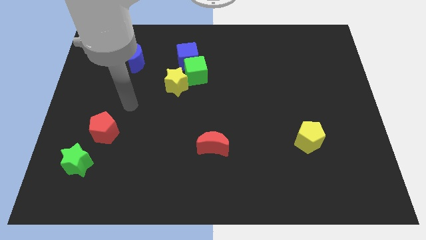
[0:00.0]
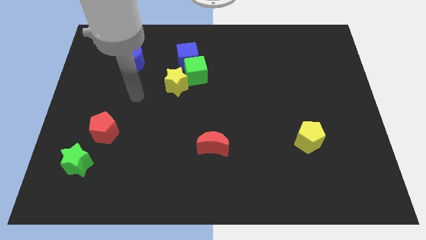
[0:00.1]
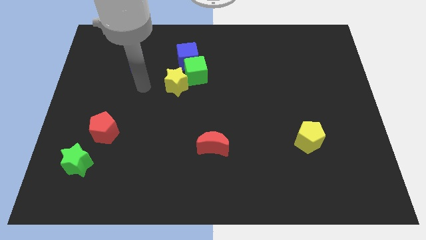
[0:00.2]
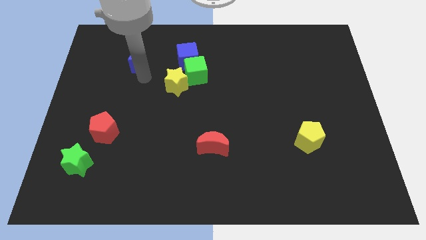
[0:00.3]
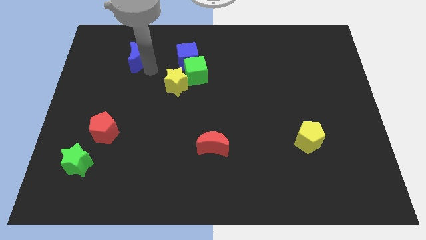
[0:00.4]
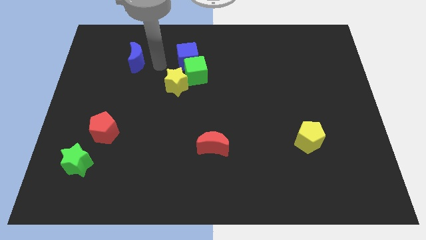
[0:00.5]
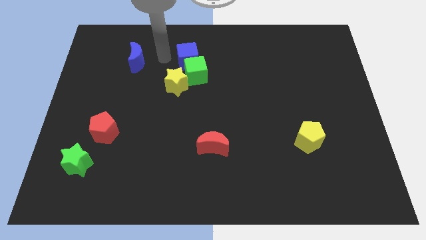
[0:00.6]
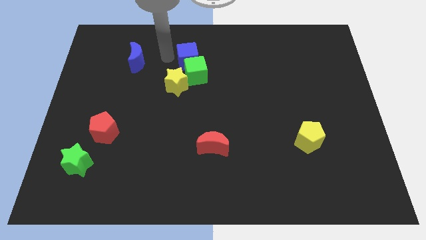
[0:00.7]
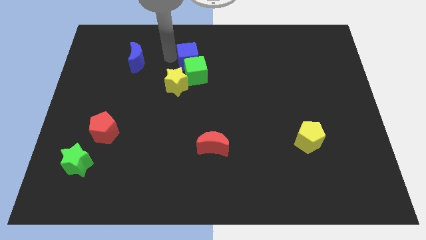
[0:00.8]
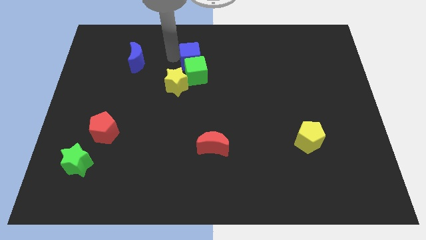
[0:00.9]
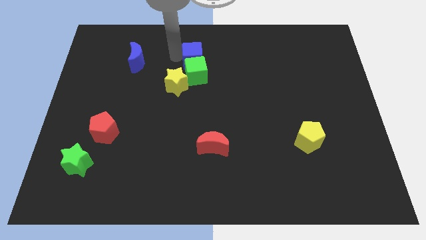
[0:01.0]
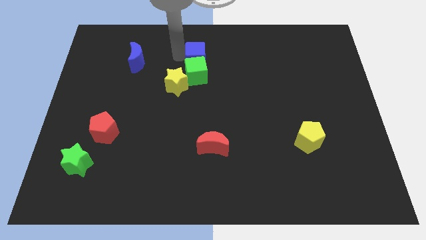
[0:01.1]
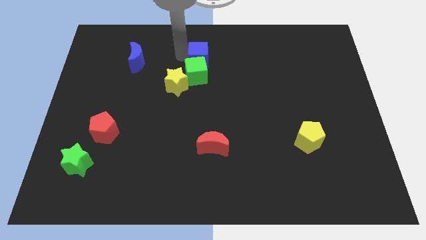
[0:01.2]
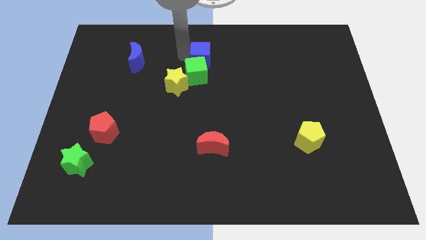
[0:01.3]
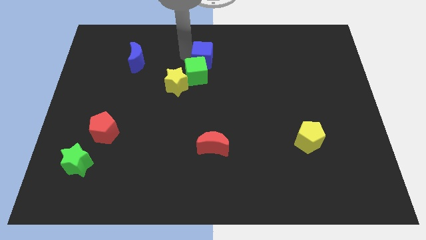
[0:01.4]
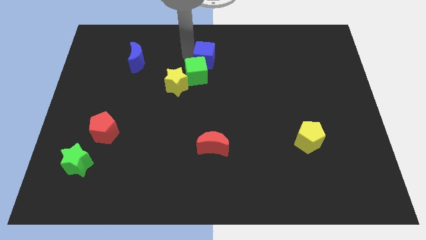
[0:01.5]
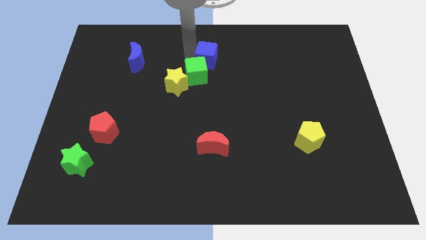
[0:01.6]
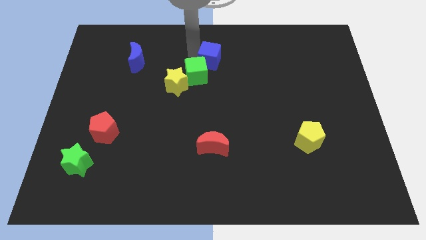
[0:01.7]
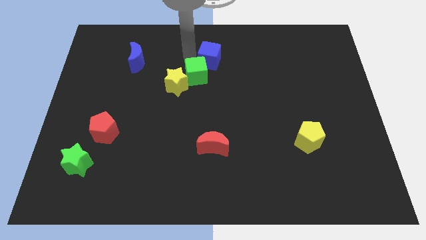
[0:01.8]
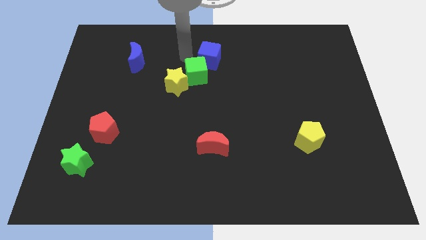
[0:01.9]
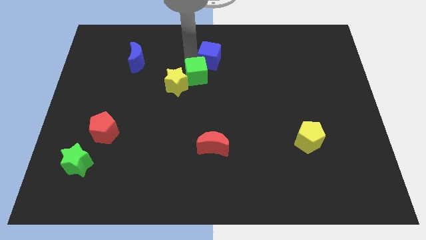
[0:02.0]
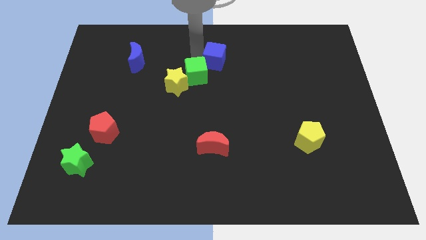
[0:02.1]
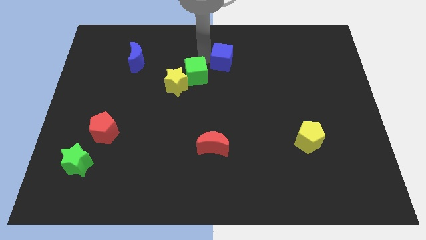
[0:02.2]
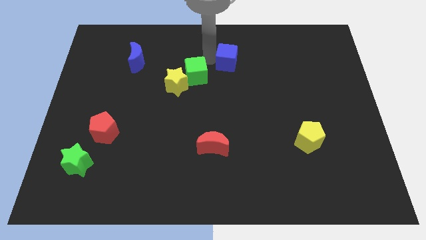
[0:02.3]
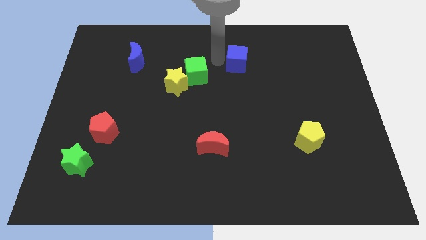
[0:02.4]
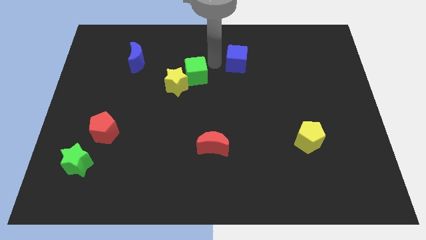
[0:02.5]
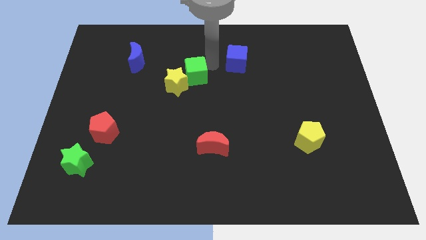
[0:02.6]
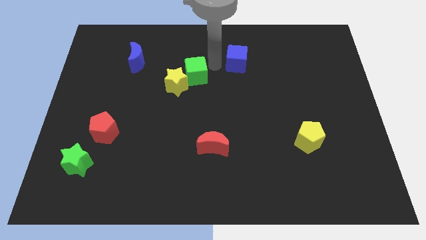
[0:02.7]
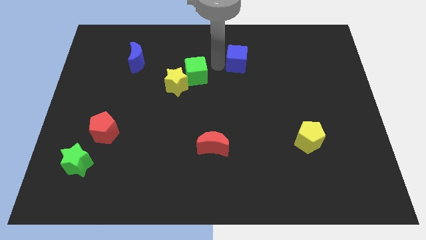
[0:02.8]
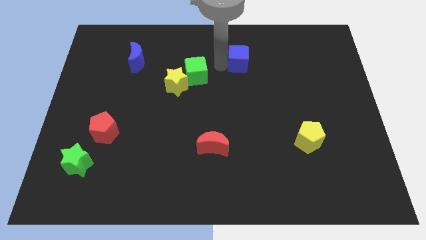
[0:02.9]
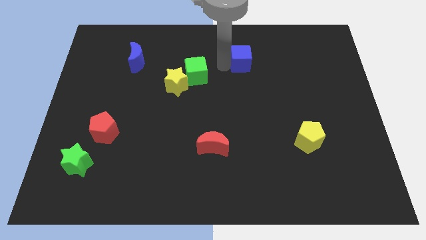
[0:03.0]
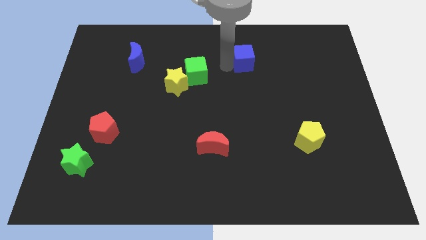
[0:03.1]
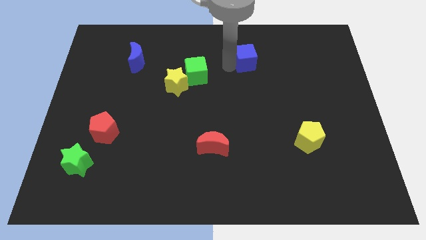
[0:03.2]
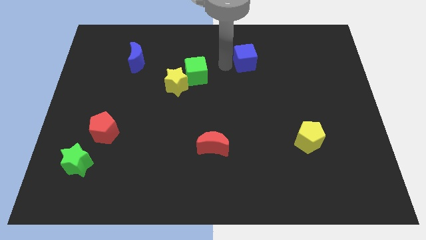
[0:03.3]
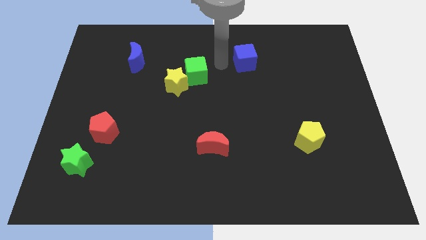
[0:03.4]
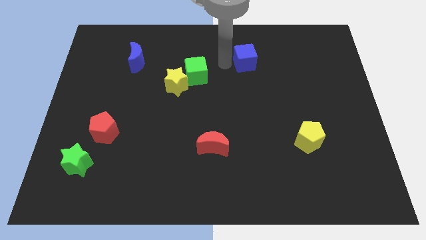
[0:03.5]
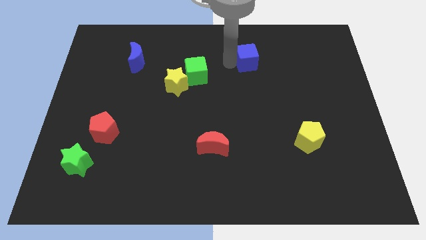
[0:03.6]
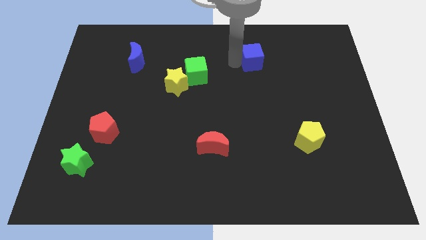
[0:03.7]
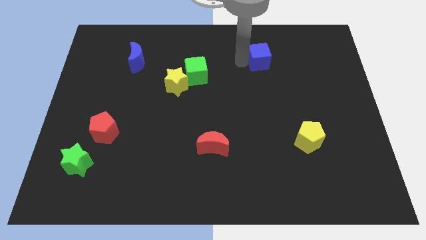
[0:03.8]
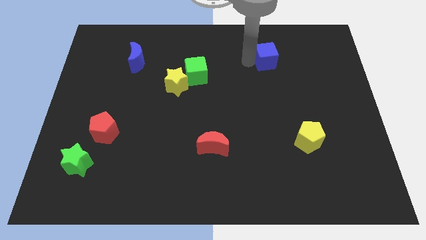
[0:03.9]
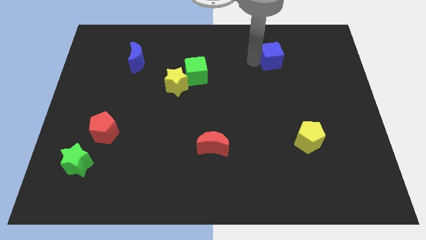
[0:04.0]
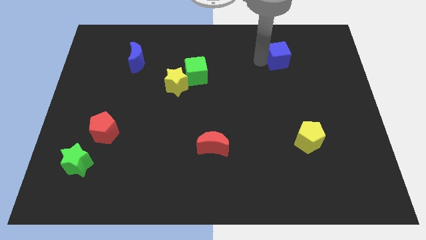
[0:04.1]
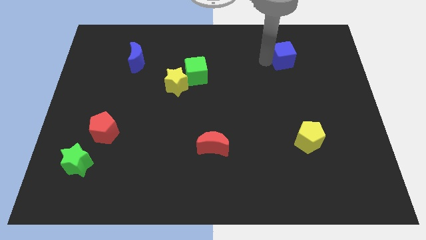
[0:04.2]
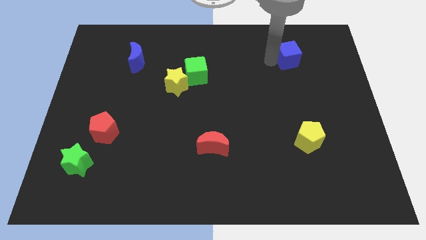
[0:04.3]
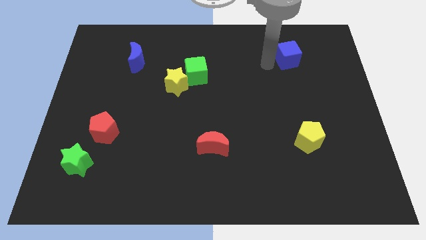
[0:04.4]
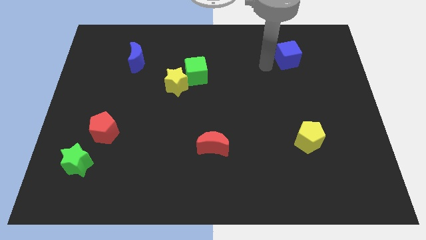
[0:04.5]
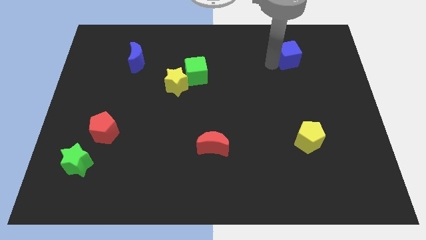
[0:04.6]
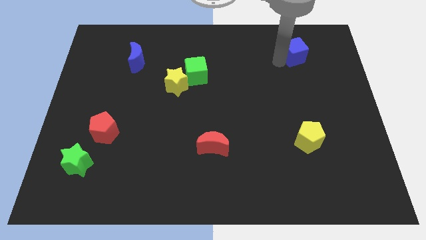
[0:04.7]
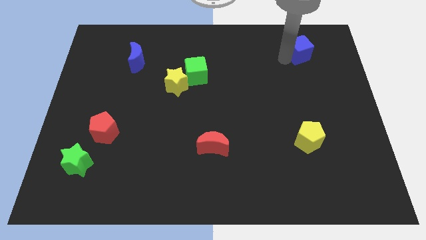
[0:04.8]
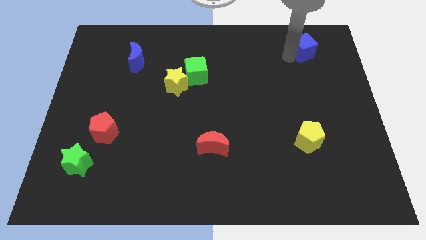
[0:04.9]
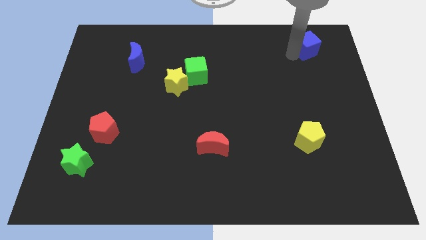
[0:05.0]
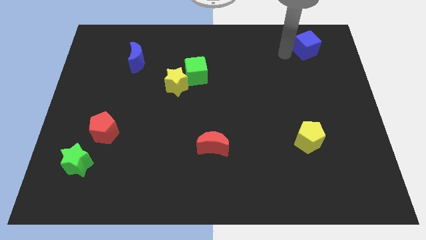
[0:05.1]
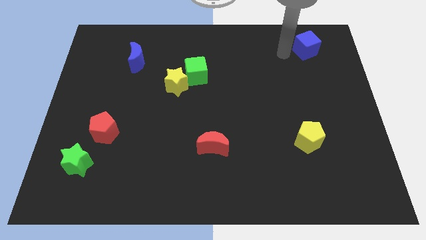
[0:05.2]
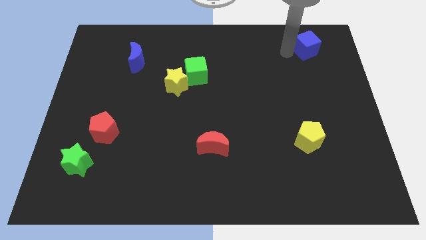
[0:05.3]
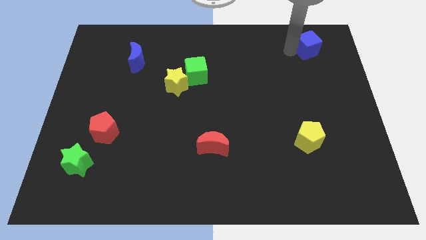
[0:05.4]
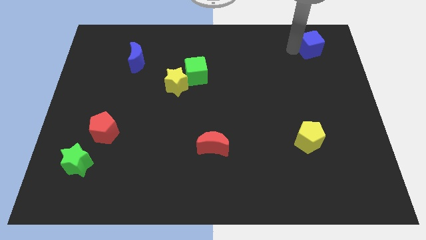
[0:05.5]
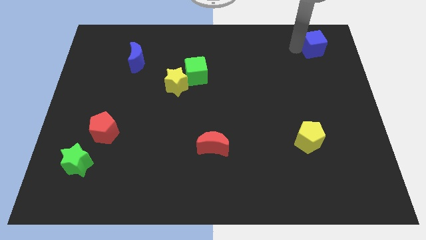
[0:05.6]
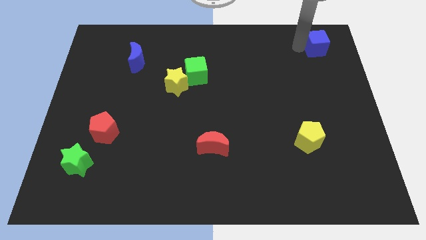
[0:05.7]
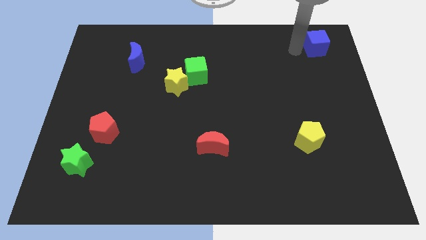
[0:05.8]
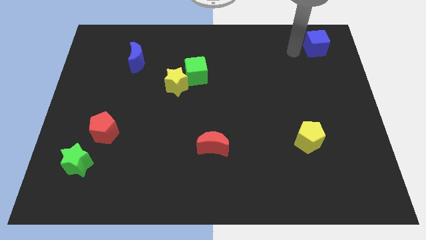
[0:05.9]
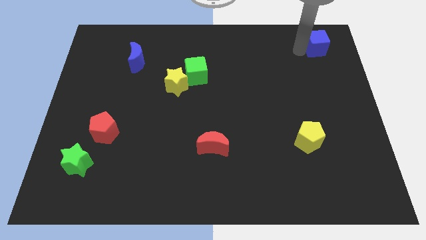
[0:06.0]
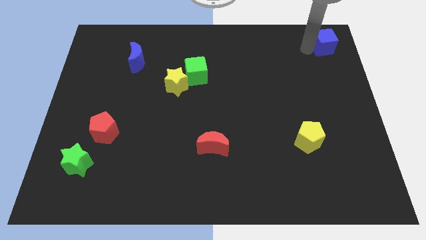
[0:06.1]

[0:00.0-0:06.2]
slide the blue cube to the upper right corner
